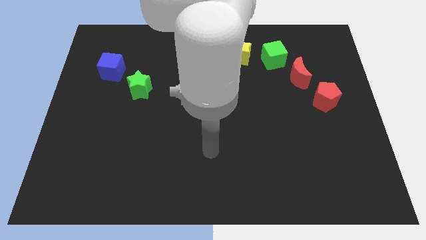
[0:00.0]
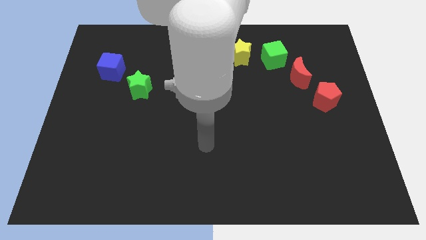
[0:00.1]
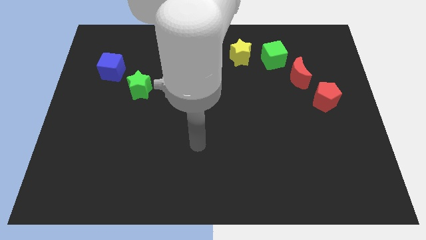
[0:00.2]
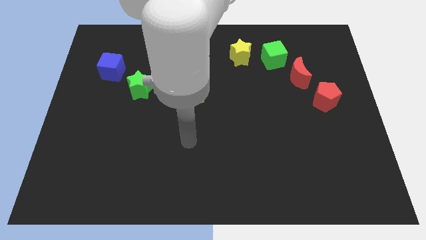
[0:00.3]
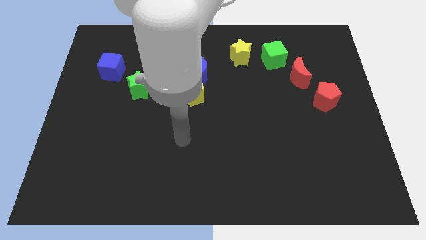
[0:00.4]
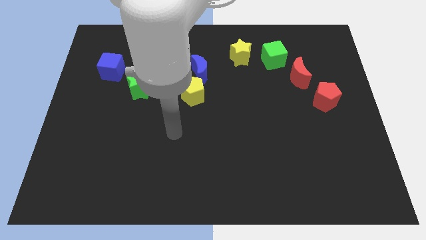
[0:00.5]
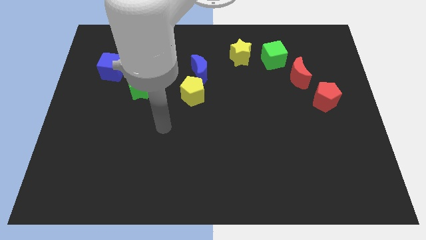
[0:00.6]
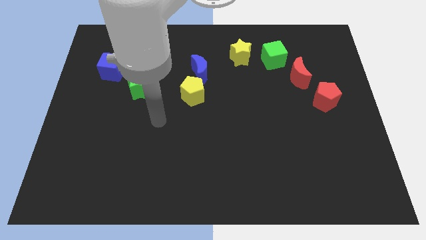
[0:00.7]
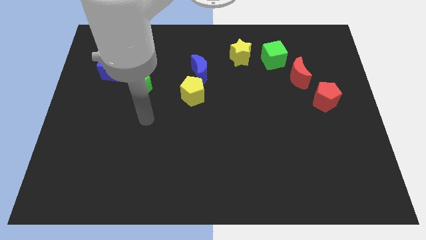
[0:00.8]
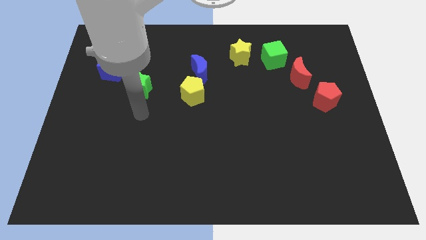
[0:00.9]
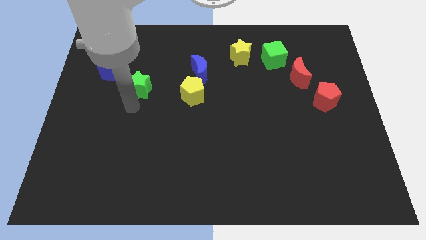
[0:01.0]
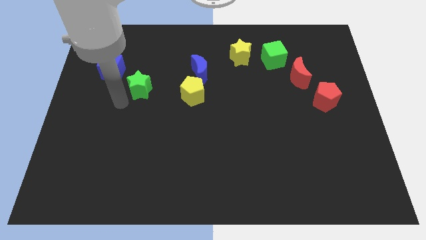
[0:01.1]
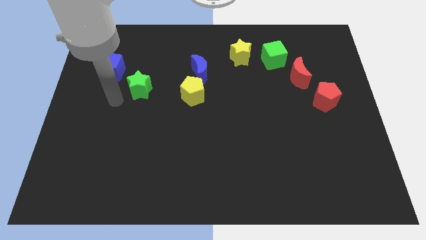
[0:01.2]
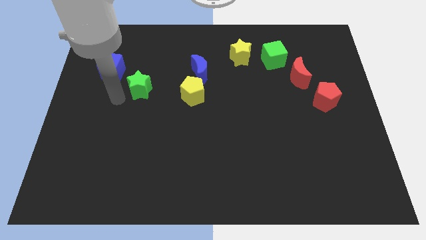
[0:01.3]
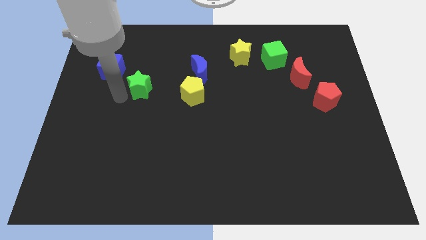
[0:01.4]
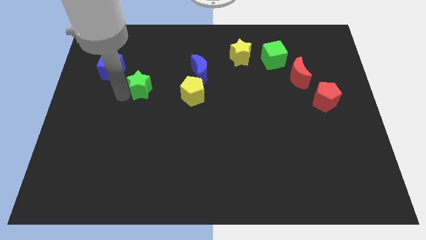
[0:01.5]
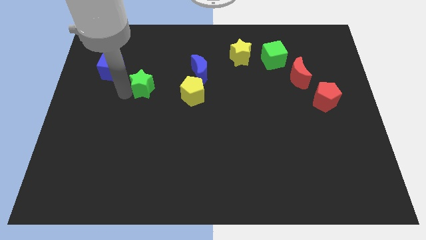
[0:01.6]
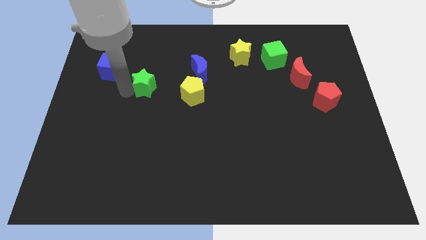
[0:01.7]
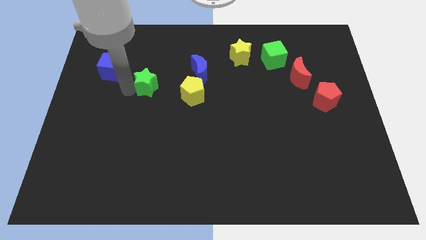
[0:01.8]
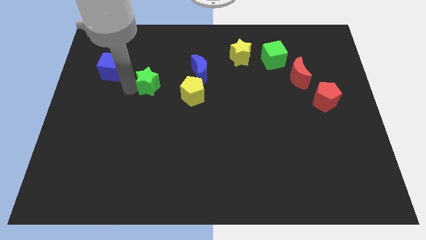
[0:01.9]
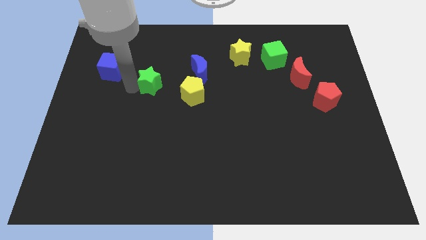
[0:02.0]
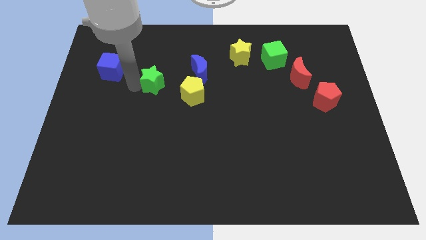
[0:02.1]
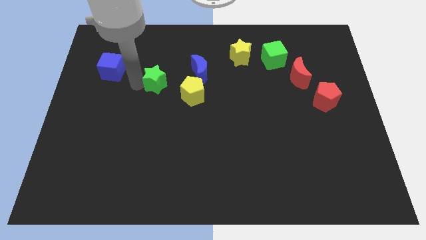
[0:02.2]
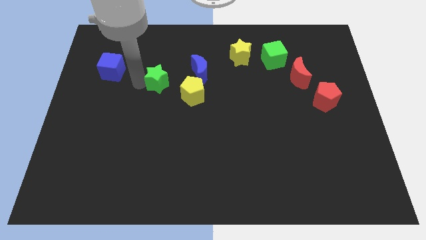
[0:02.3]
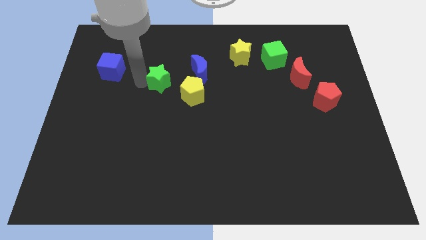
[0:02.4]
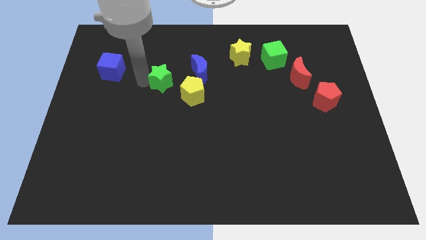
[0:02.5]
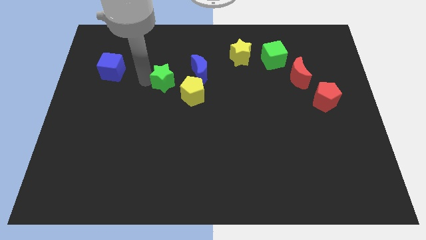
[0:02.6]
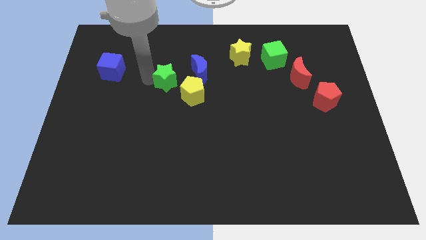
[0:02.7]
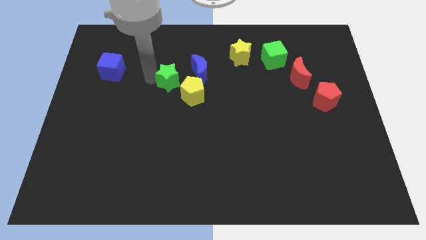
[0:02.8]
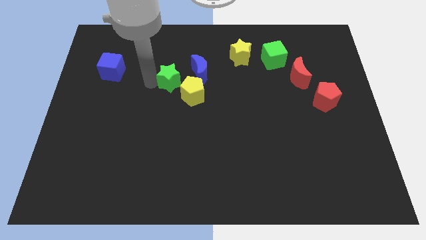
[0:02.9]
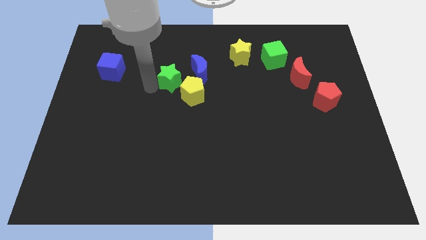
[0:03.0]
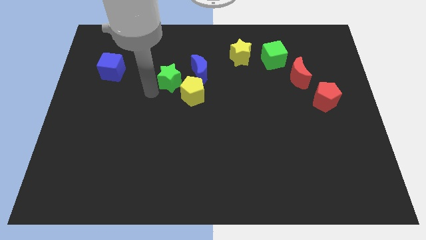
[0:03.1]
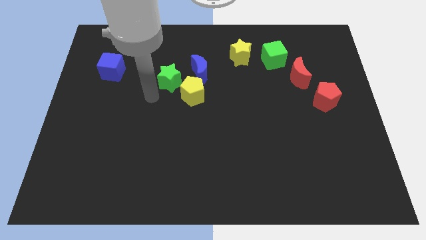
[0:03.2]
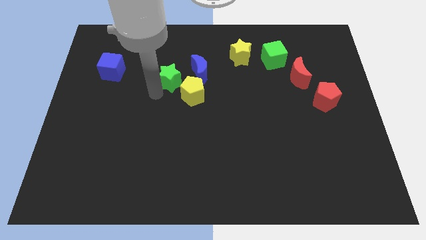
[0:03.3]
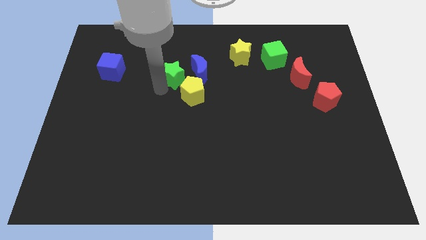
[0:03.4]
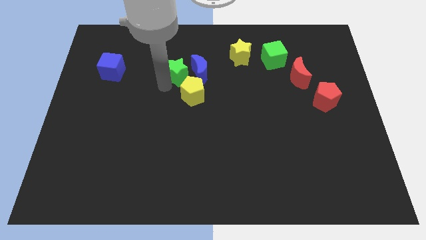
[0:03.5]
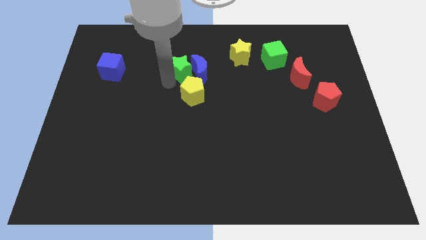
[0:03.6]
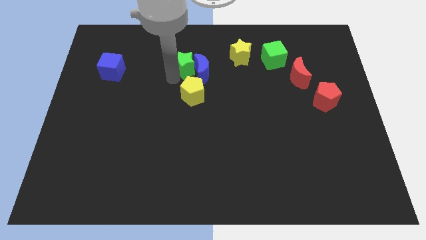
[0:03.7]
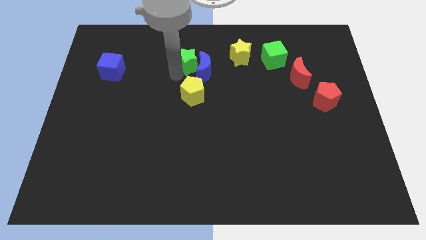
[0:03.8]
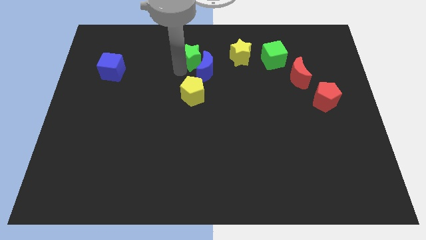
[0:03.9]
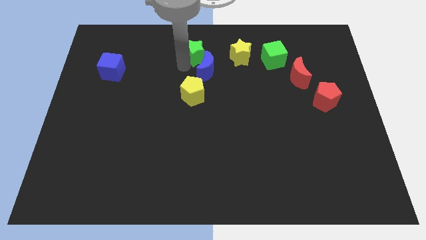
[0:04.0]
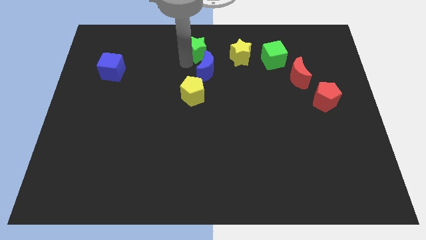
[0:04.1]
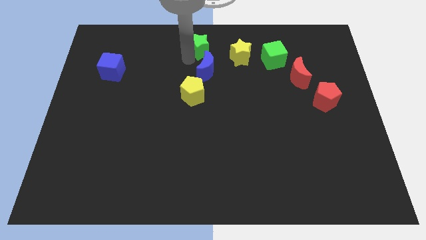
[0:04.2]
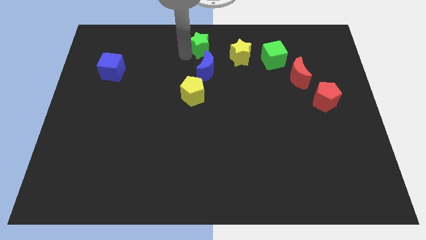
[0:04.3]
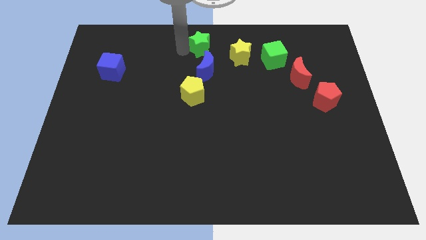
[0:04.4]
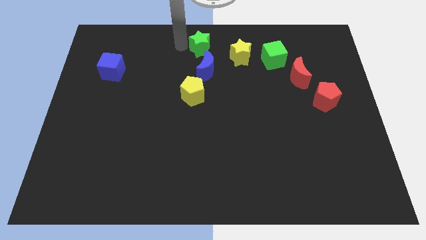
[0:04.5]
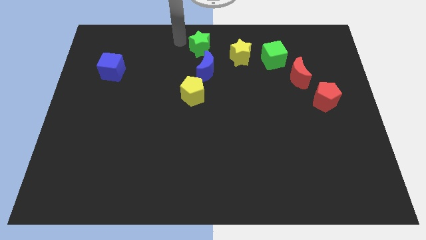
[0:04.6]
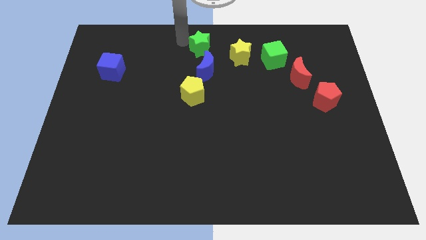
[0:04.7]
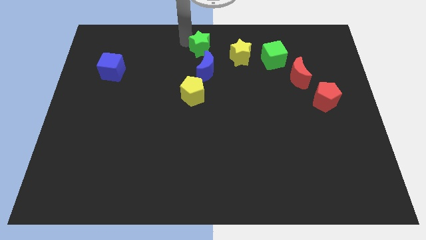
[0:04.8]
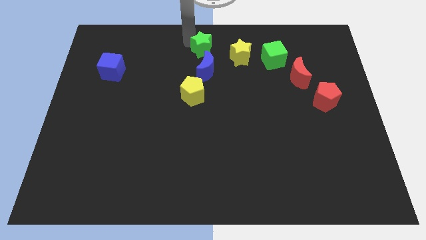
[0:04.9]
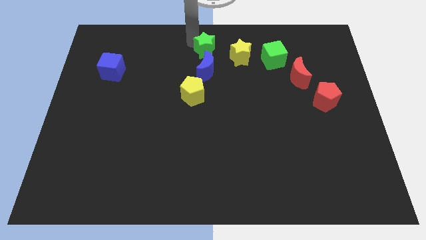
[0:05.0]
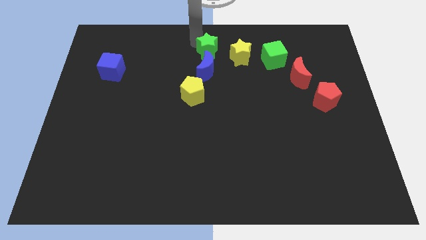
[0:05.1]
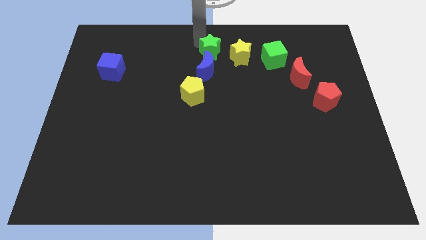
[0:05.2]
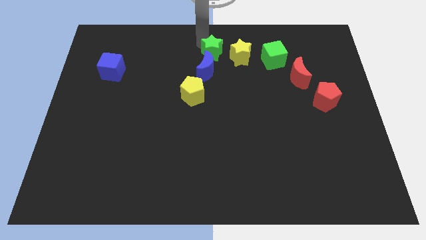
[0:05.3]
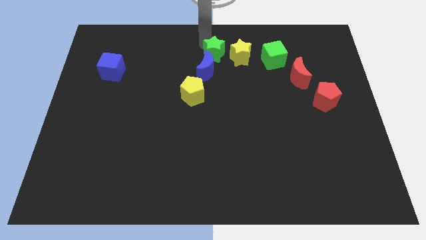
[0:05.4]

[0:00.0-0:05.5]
put the green star to the left side of the green cube

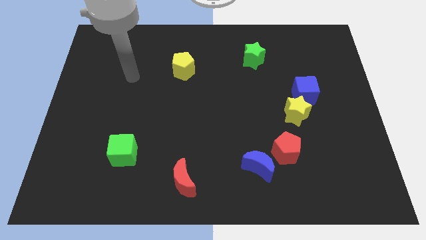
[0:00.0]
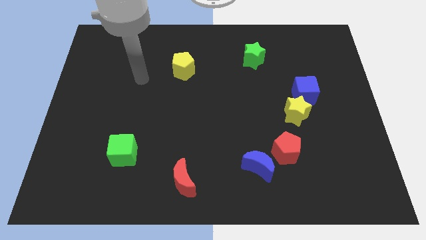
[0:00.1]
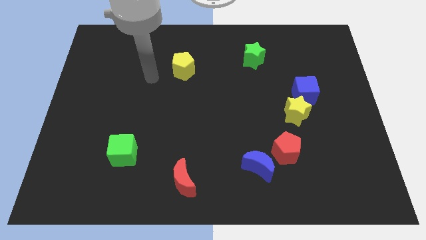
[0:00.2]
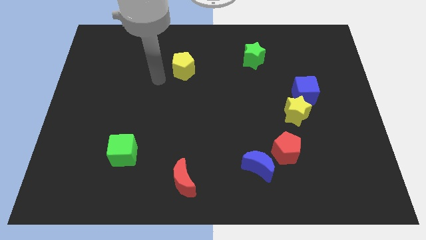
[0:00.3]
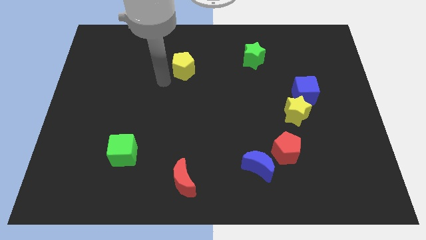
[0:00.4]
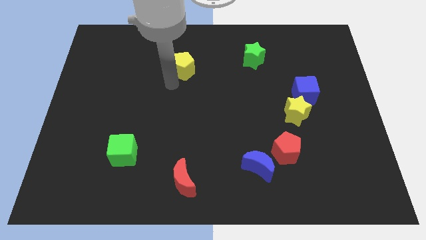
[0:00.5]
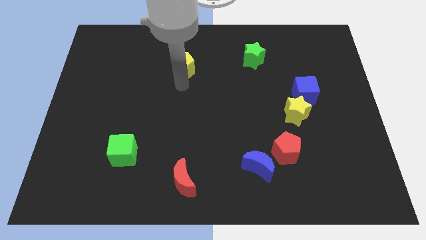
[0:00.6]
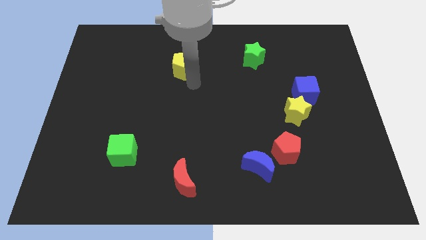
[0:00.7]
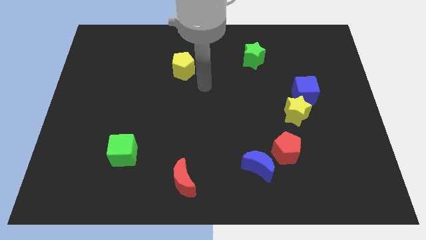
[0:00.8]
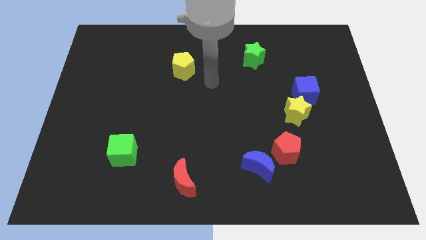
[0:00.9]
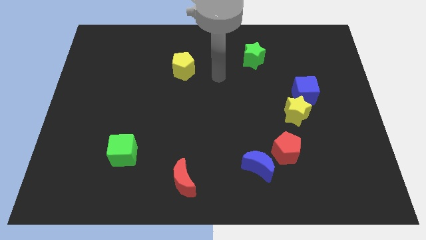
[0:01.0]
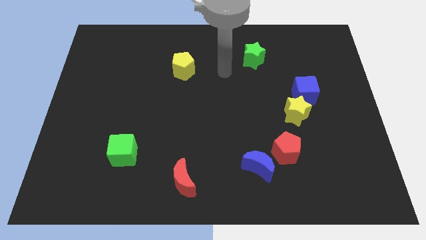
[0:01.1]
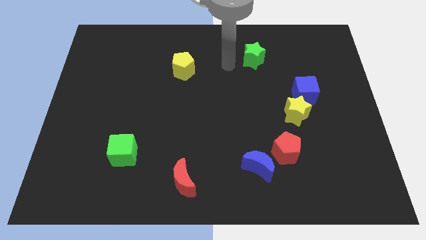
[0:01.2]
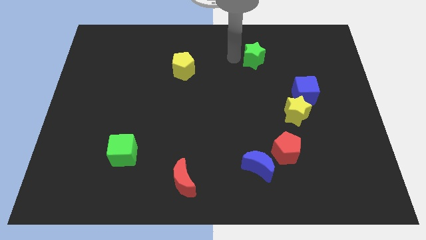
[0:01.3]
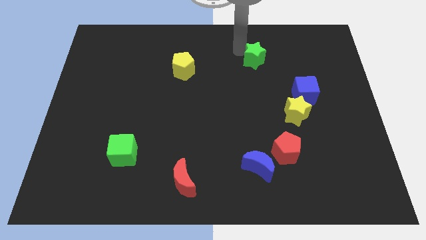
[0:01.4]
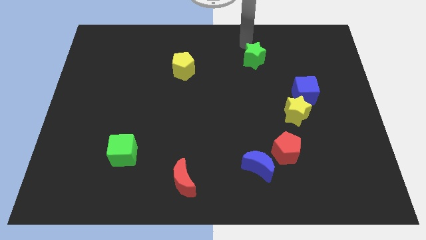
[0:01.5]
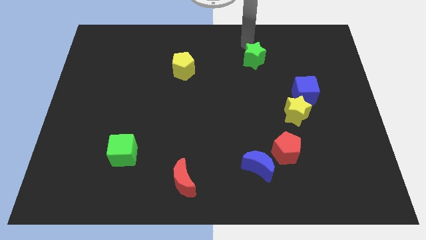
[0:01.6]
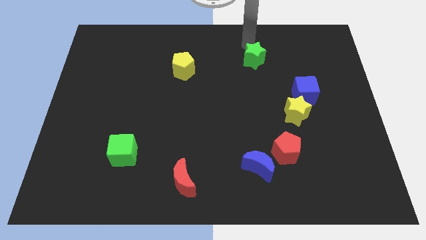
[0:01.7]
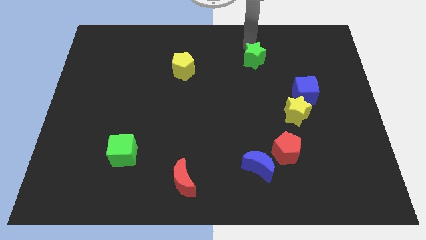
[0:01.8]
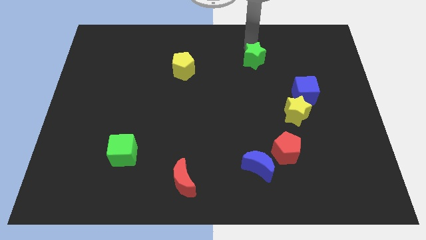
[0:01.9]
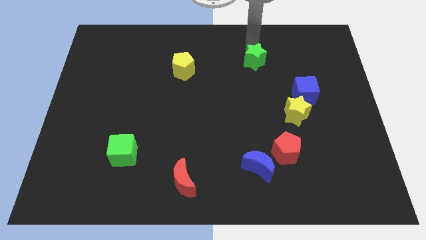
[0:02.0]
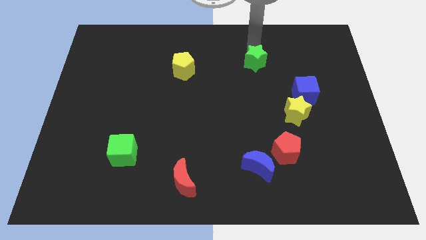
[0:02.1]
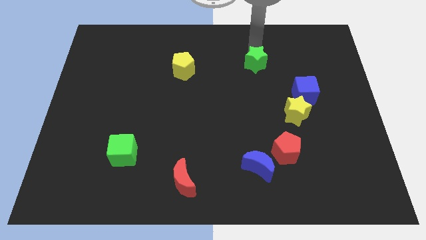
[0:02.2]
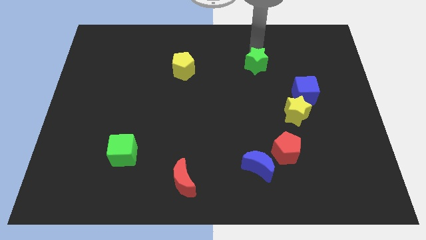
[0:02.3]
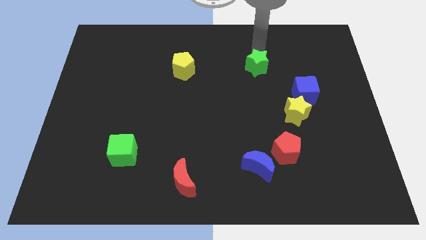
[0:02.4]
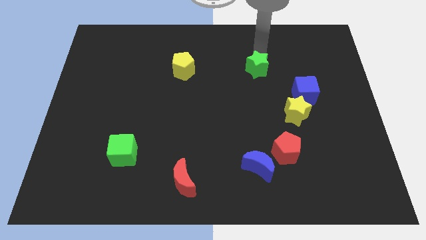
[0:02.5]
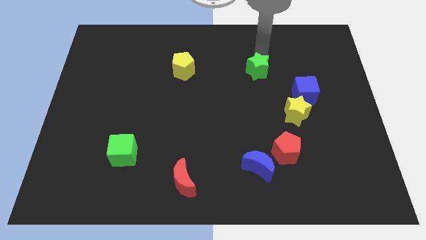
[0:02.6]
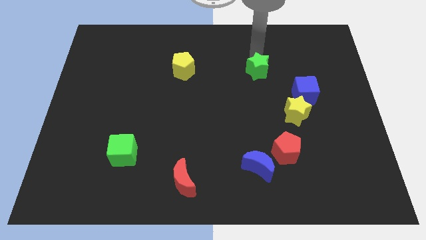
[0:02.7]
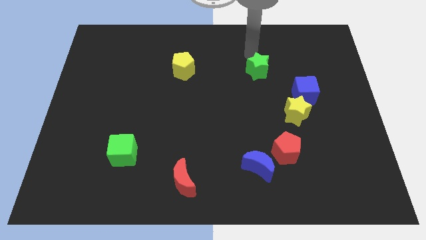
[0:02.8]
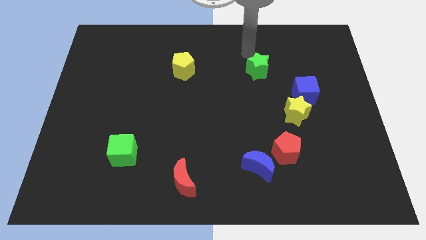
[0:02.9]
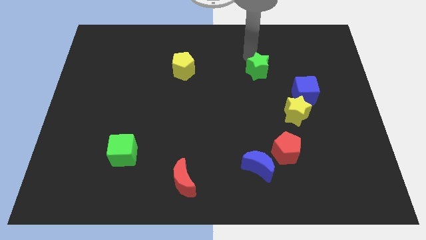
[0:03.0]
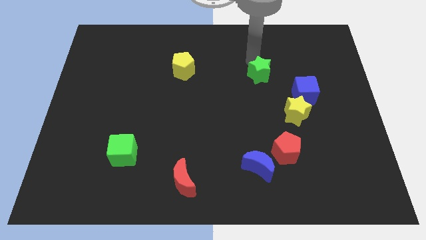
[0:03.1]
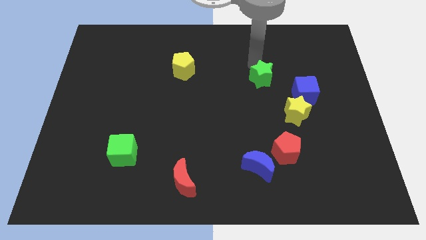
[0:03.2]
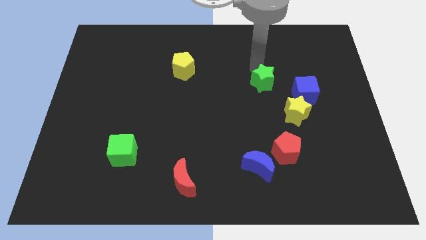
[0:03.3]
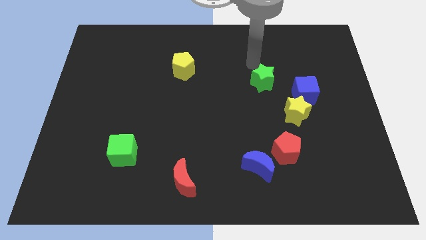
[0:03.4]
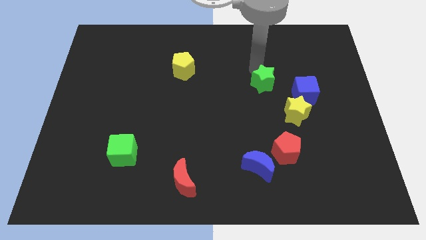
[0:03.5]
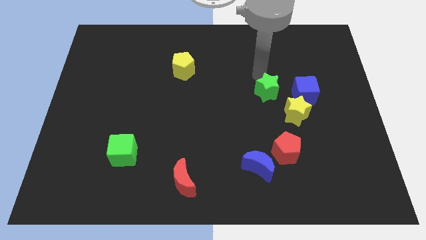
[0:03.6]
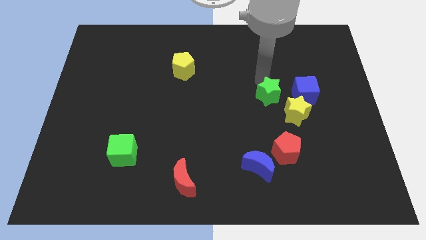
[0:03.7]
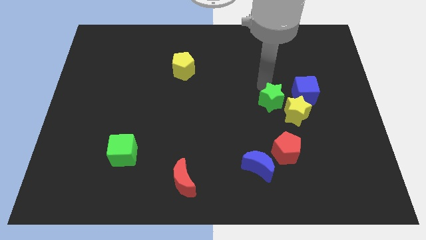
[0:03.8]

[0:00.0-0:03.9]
push the green star to the top of the red pentagon
